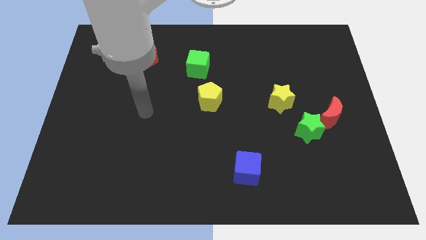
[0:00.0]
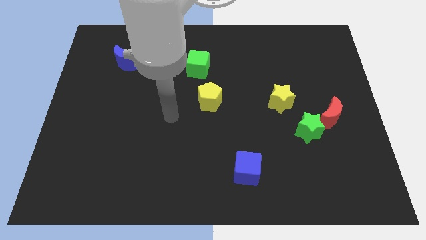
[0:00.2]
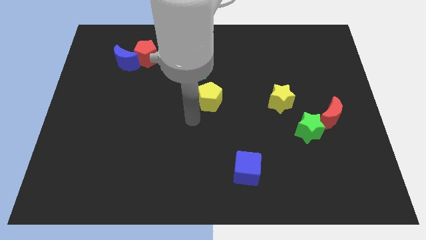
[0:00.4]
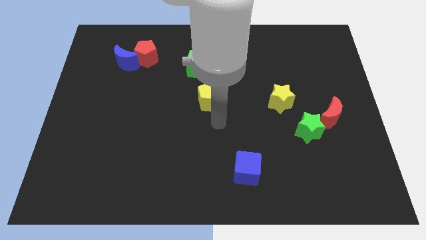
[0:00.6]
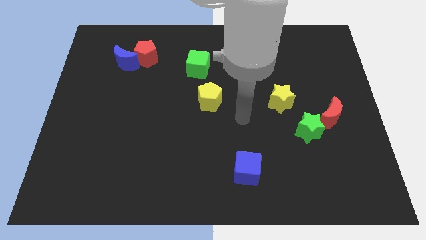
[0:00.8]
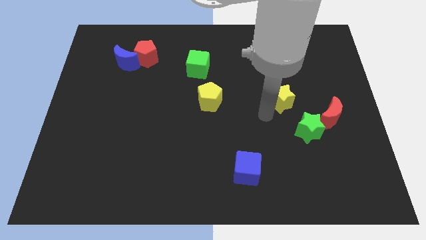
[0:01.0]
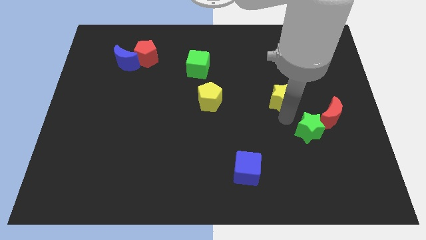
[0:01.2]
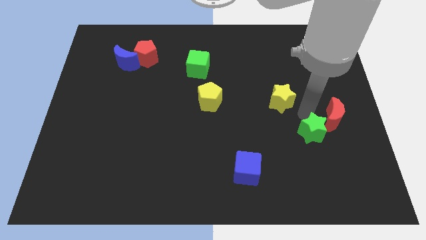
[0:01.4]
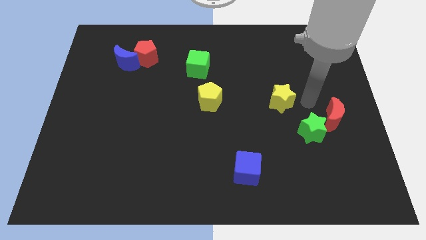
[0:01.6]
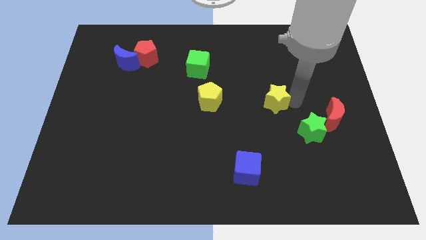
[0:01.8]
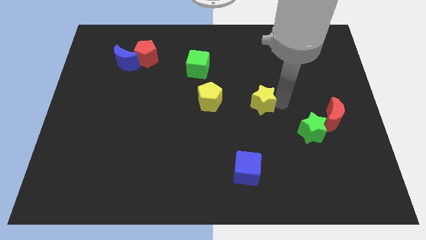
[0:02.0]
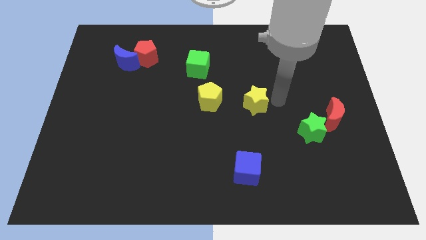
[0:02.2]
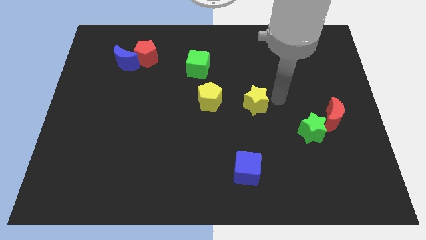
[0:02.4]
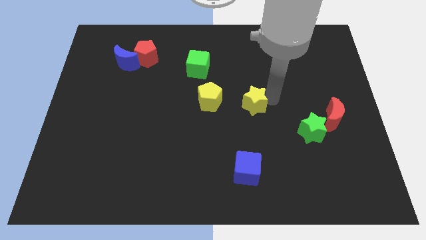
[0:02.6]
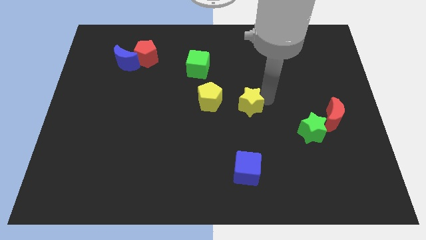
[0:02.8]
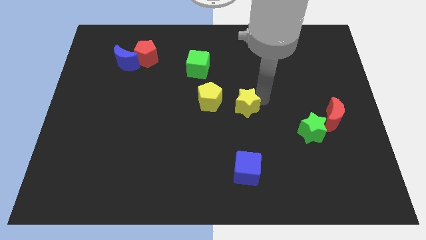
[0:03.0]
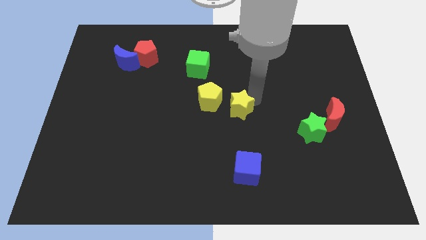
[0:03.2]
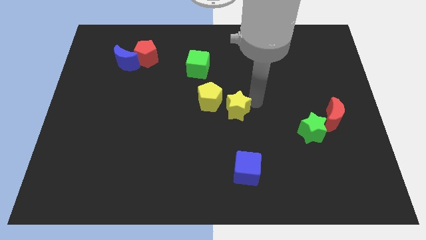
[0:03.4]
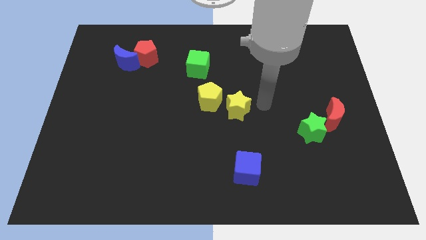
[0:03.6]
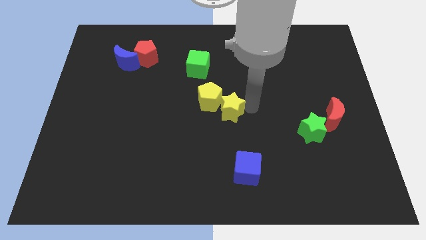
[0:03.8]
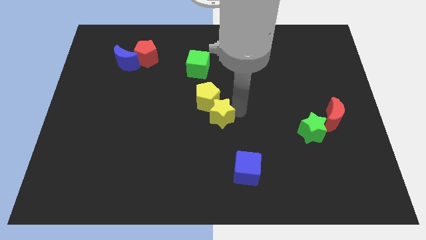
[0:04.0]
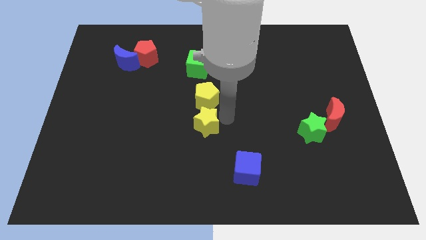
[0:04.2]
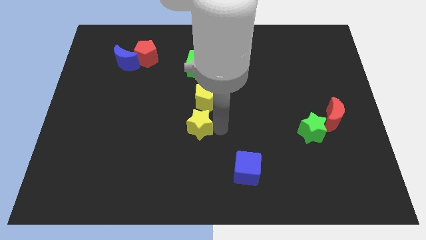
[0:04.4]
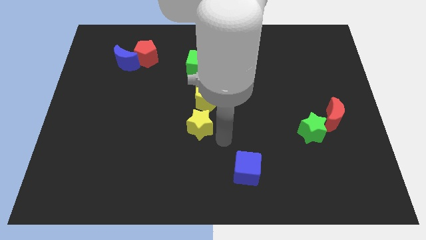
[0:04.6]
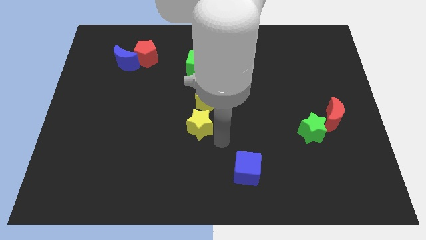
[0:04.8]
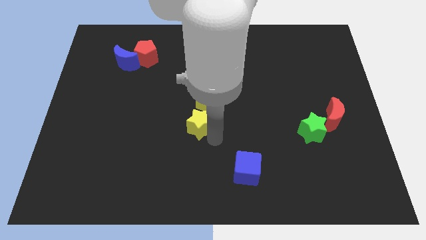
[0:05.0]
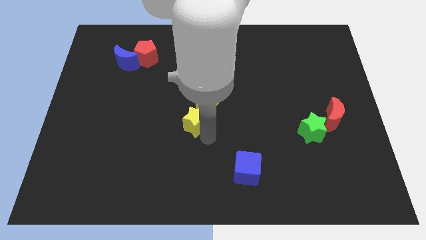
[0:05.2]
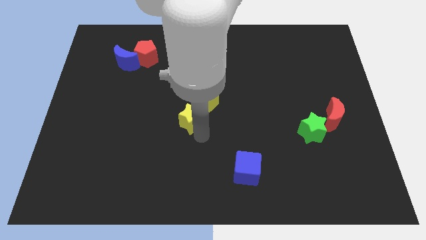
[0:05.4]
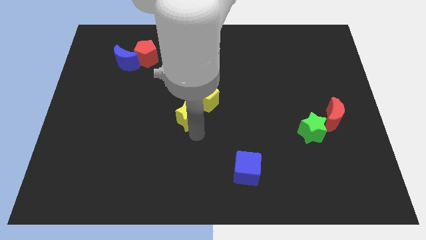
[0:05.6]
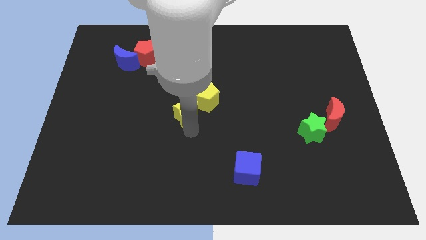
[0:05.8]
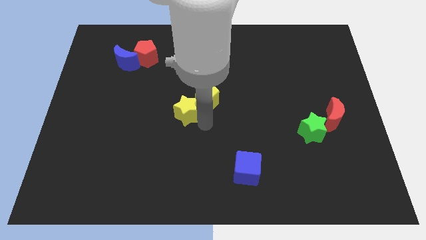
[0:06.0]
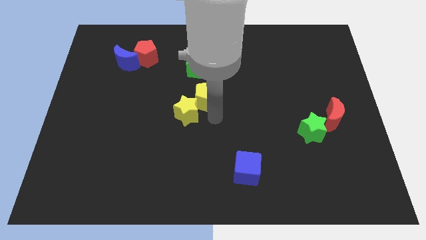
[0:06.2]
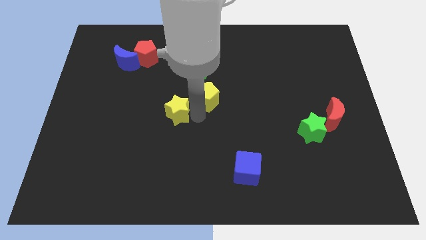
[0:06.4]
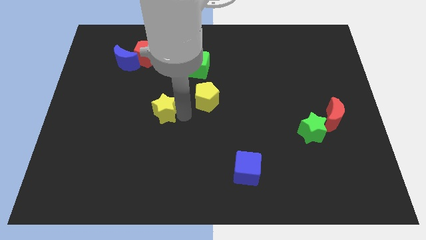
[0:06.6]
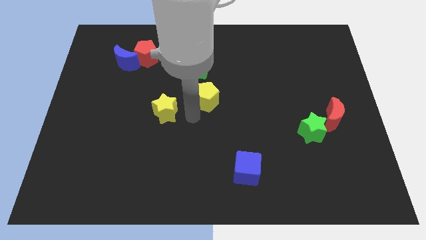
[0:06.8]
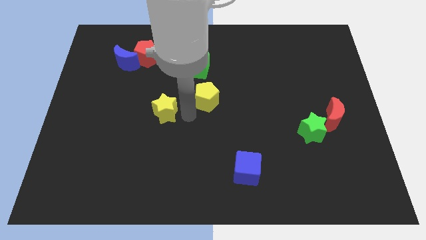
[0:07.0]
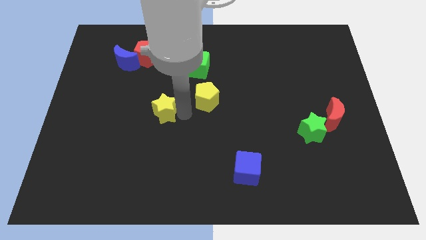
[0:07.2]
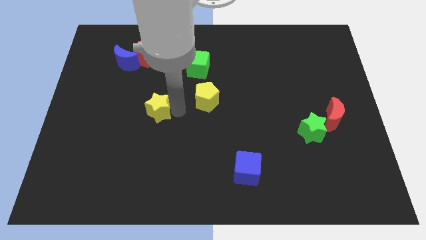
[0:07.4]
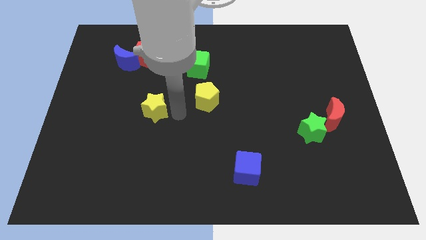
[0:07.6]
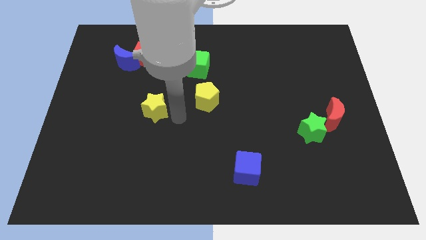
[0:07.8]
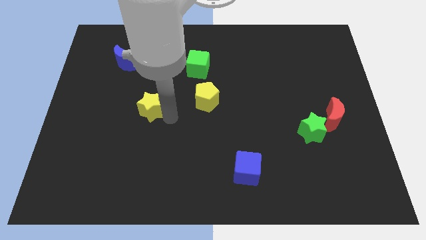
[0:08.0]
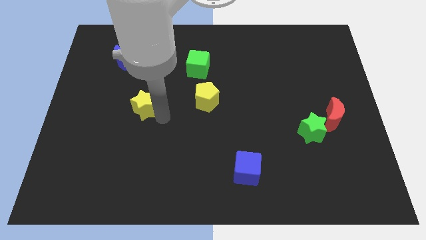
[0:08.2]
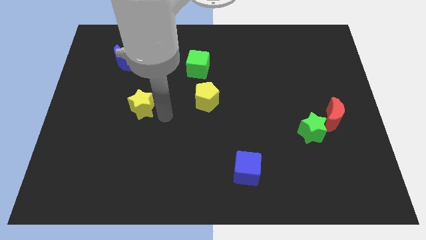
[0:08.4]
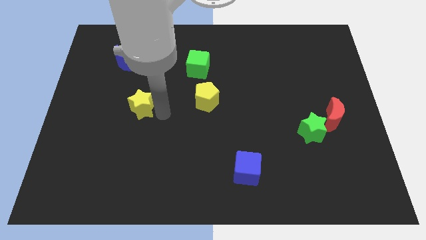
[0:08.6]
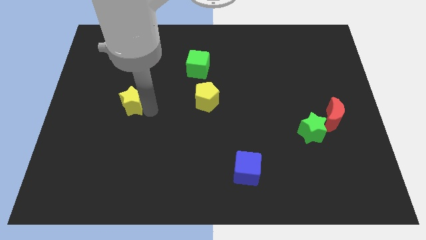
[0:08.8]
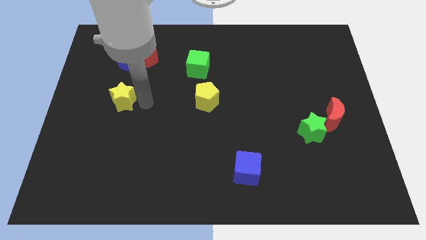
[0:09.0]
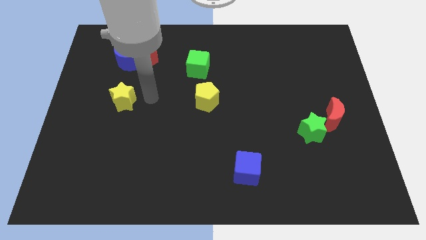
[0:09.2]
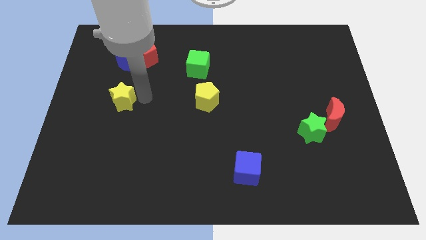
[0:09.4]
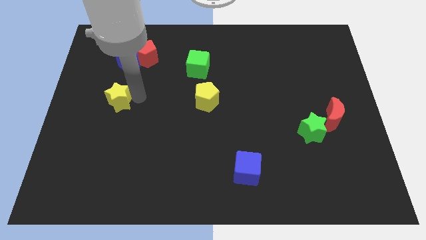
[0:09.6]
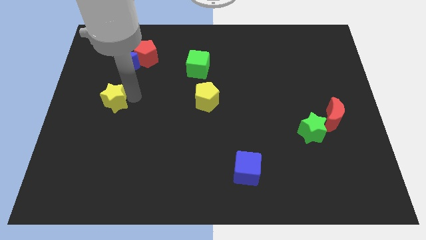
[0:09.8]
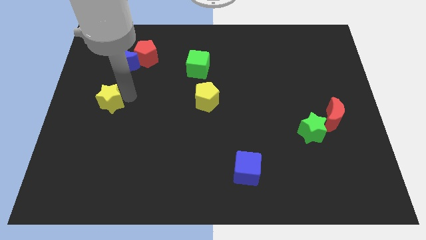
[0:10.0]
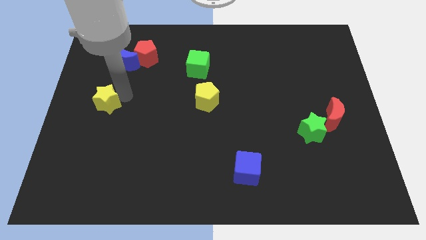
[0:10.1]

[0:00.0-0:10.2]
push the yellow star to the left side of the board
